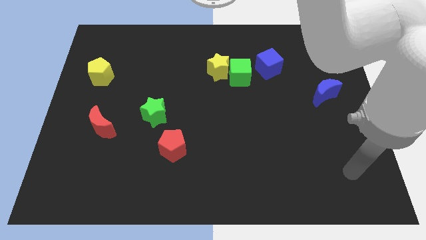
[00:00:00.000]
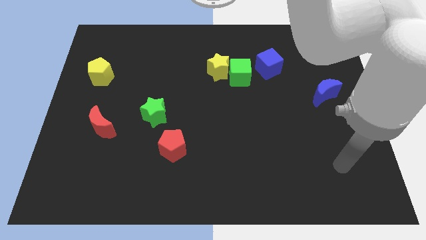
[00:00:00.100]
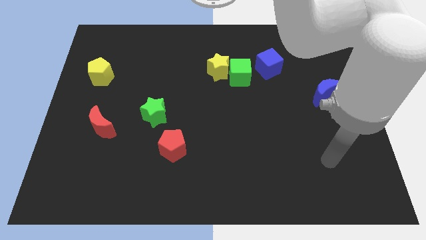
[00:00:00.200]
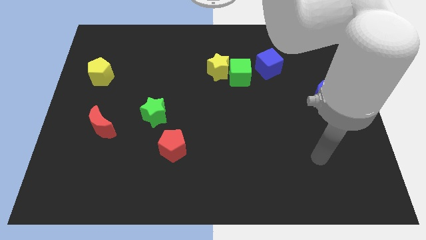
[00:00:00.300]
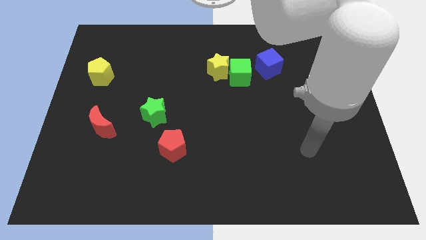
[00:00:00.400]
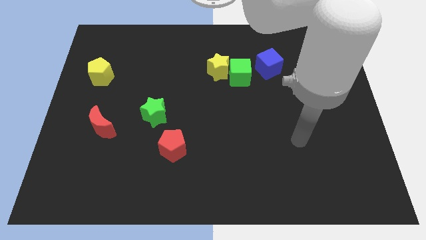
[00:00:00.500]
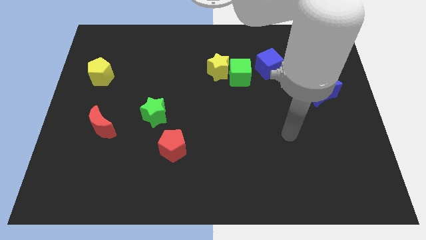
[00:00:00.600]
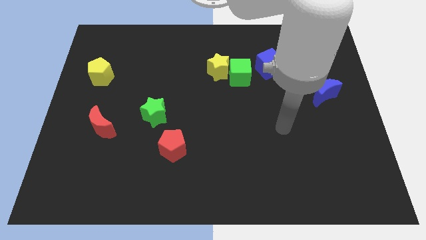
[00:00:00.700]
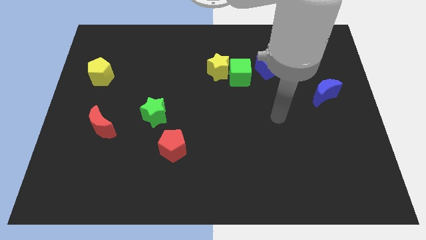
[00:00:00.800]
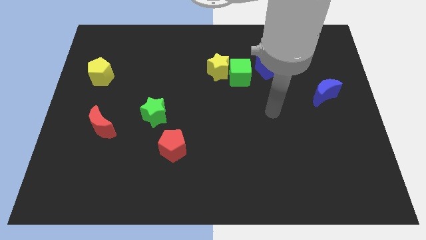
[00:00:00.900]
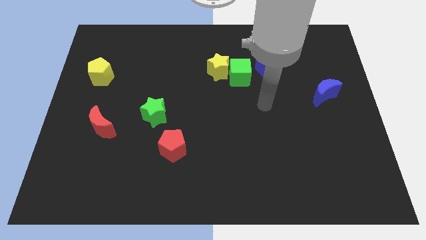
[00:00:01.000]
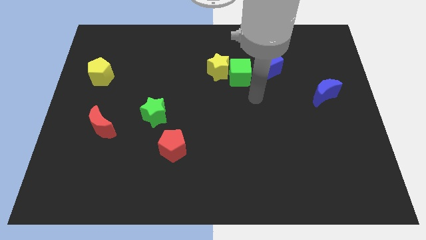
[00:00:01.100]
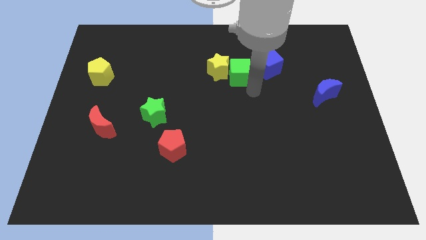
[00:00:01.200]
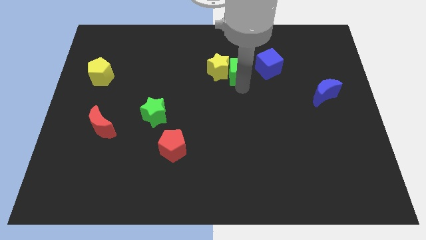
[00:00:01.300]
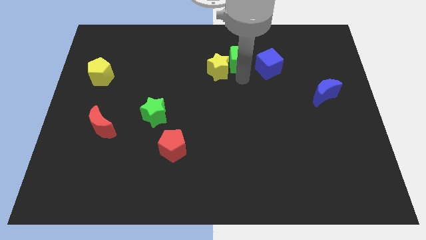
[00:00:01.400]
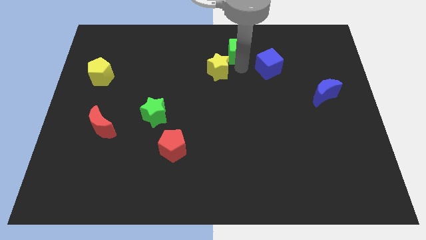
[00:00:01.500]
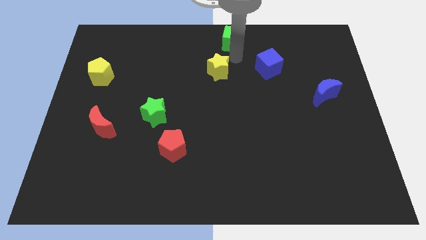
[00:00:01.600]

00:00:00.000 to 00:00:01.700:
separate the yellow star from the green cube

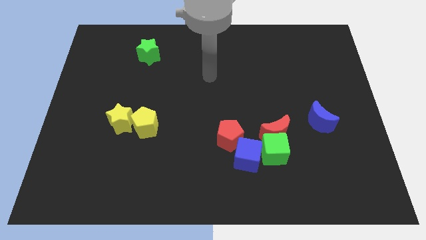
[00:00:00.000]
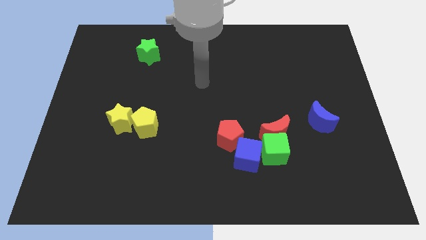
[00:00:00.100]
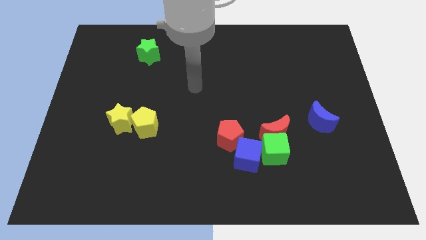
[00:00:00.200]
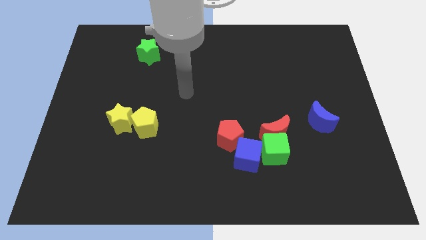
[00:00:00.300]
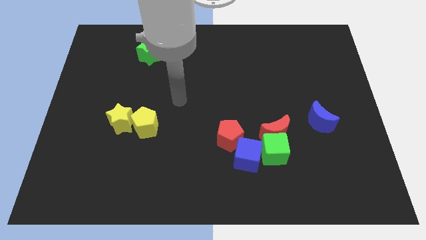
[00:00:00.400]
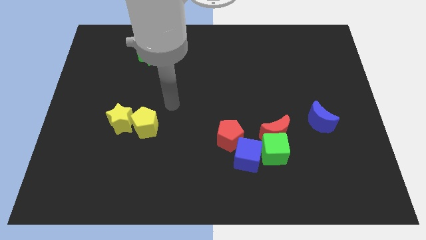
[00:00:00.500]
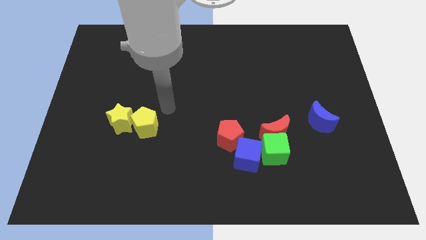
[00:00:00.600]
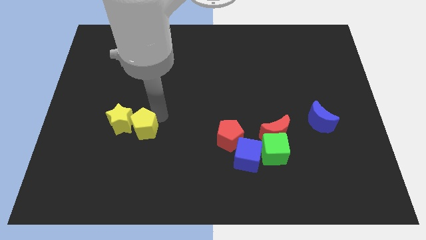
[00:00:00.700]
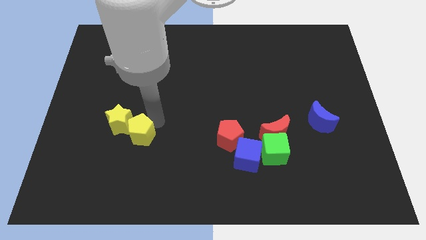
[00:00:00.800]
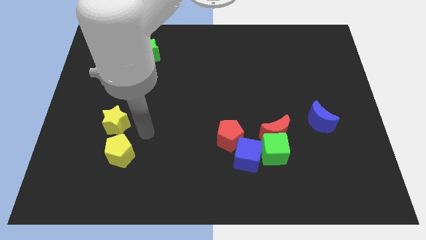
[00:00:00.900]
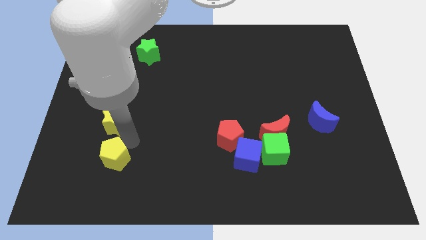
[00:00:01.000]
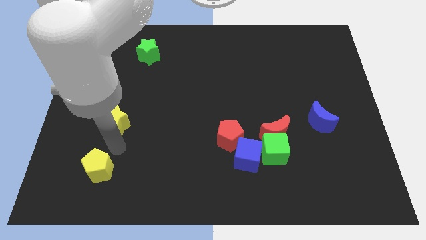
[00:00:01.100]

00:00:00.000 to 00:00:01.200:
separate the yellow star from the yellow pentagon

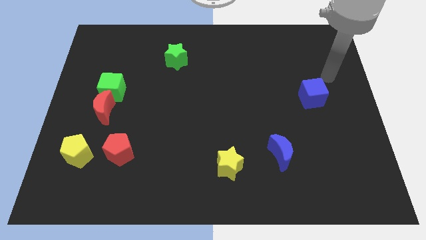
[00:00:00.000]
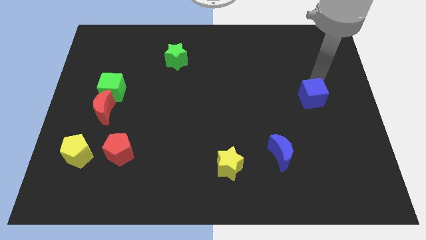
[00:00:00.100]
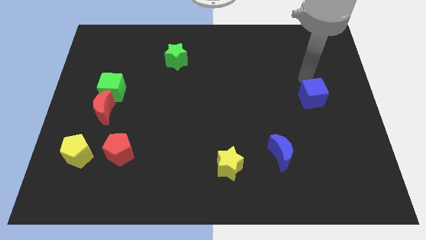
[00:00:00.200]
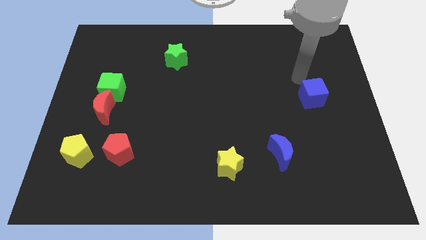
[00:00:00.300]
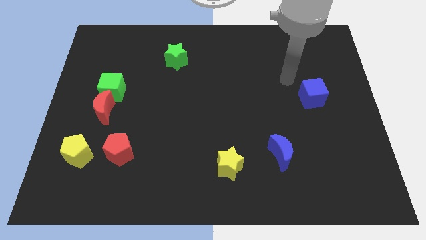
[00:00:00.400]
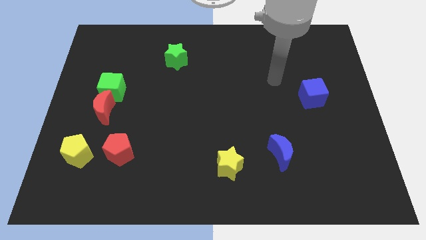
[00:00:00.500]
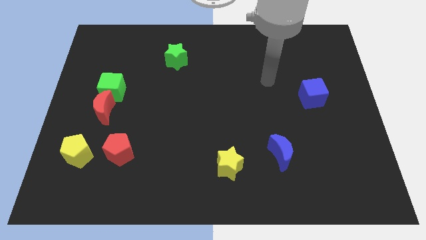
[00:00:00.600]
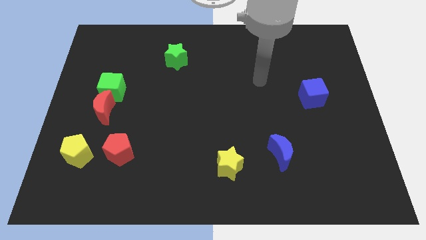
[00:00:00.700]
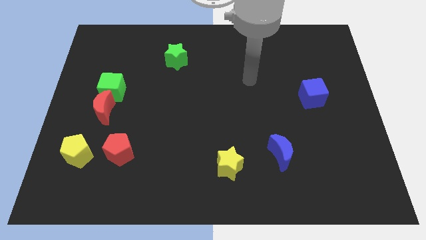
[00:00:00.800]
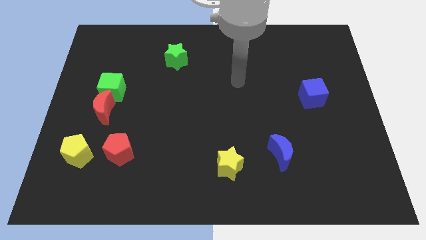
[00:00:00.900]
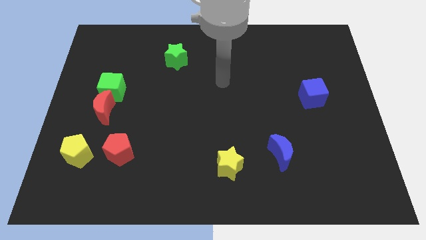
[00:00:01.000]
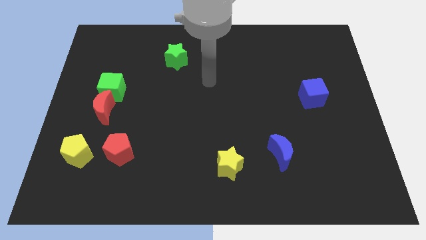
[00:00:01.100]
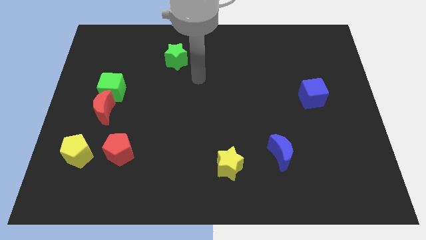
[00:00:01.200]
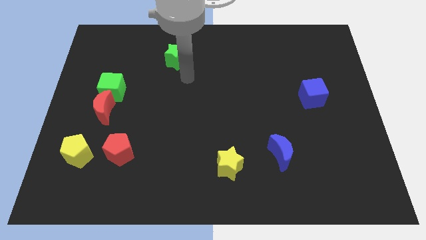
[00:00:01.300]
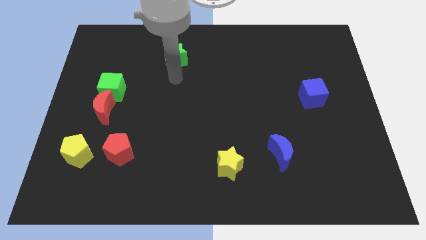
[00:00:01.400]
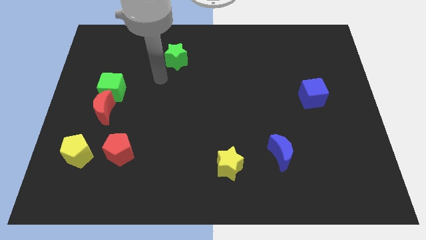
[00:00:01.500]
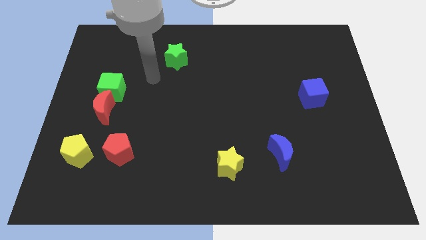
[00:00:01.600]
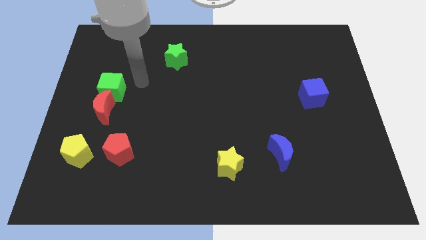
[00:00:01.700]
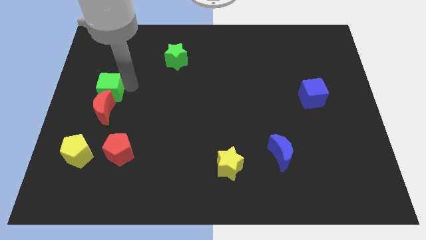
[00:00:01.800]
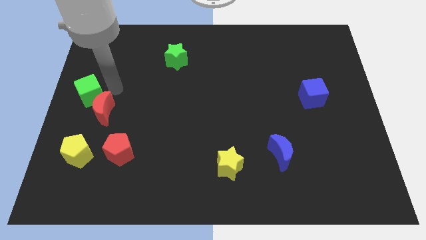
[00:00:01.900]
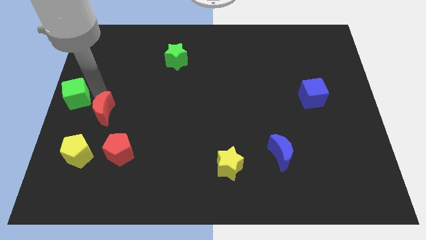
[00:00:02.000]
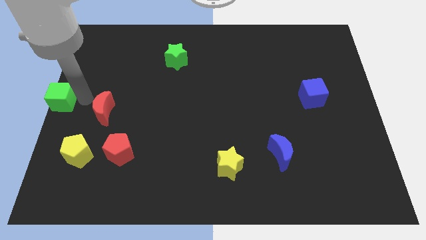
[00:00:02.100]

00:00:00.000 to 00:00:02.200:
separate the red moon from the green cube

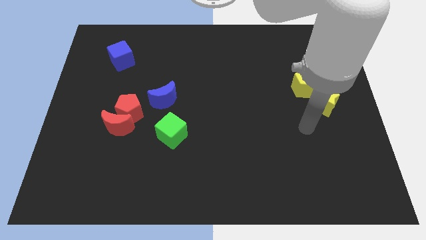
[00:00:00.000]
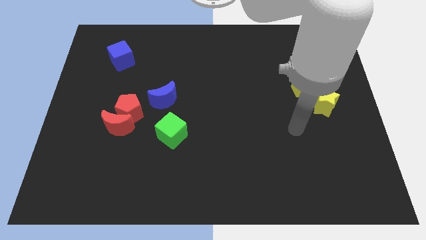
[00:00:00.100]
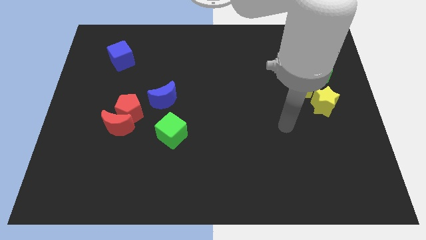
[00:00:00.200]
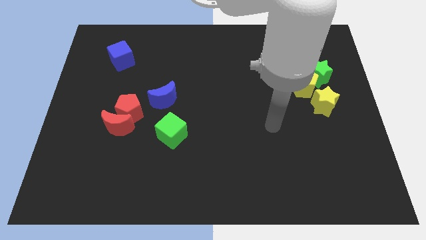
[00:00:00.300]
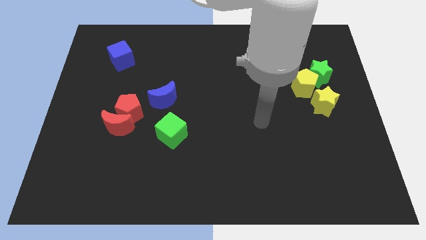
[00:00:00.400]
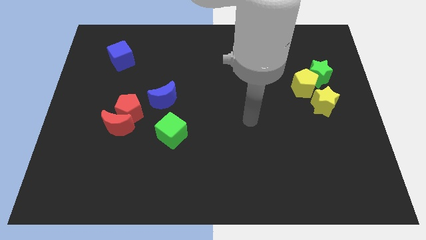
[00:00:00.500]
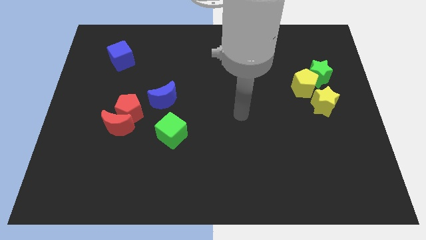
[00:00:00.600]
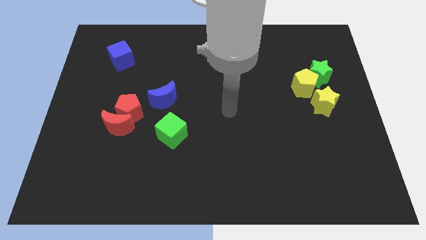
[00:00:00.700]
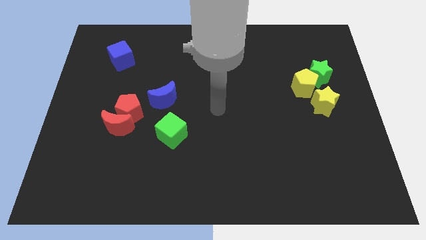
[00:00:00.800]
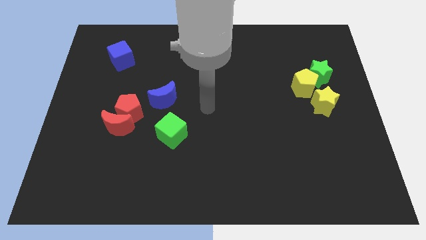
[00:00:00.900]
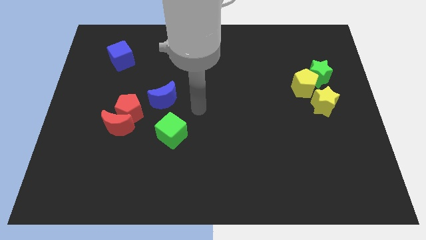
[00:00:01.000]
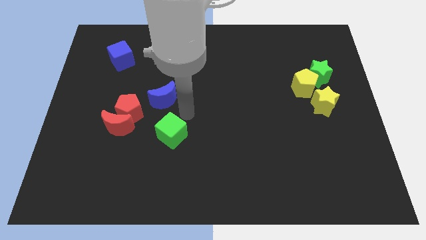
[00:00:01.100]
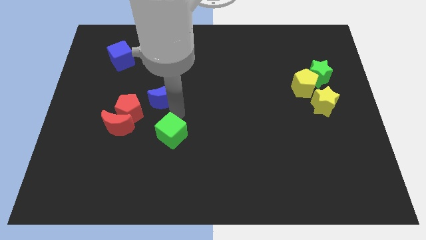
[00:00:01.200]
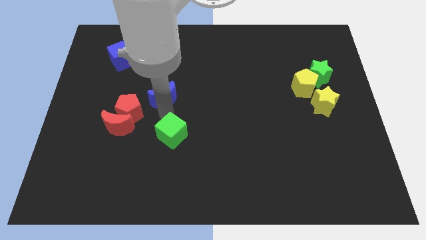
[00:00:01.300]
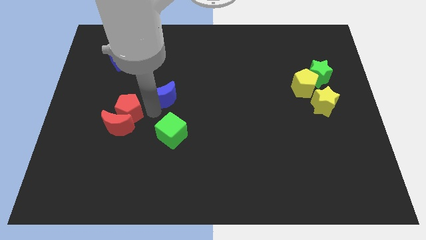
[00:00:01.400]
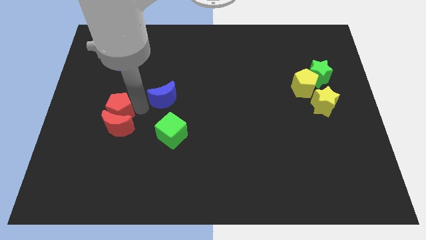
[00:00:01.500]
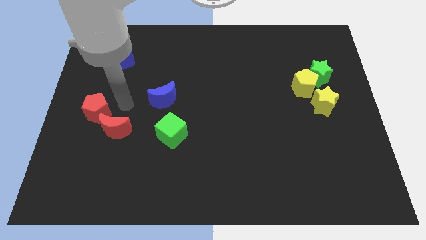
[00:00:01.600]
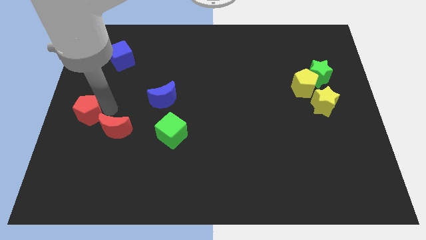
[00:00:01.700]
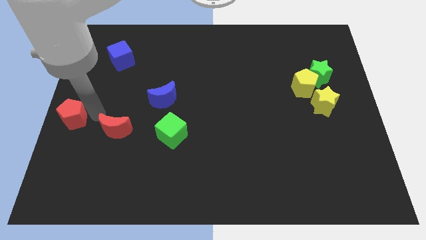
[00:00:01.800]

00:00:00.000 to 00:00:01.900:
pull the red moon apart from the red pentagon

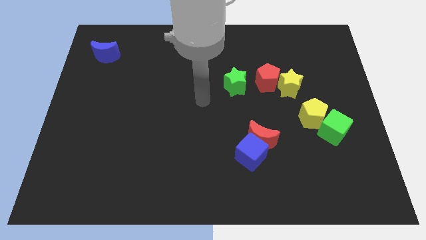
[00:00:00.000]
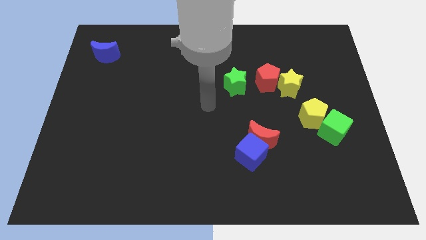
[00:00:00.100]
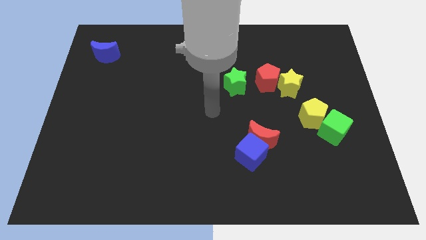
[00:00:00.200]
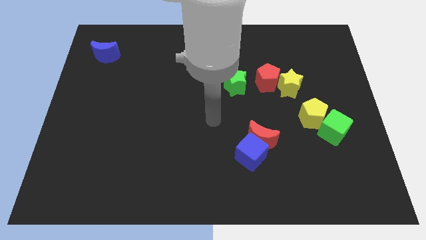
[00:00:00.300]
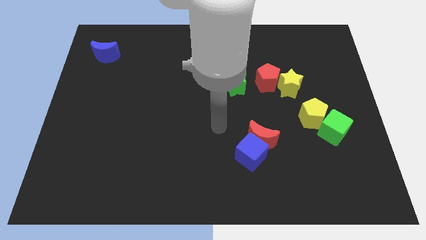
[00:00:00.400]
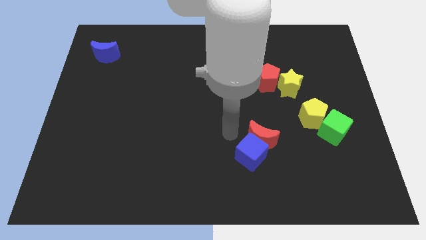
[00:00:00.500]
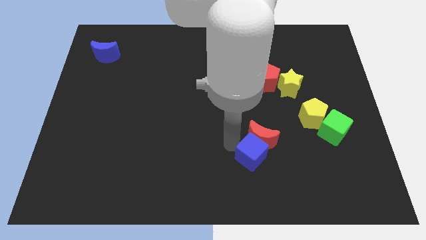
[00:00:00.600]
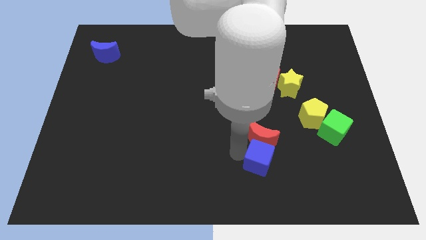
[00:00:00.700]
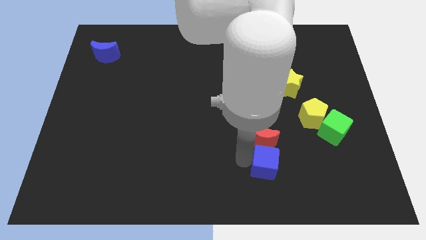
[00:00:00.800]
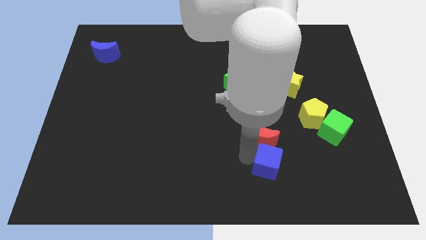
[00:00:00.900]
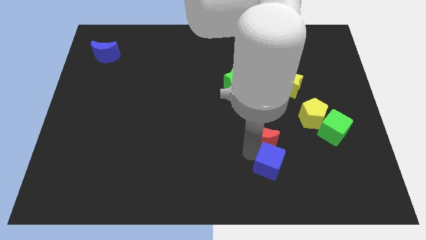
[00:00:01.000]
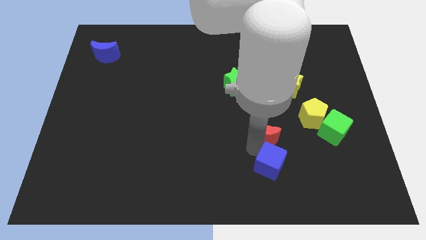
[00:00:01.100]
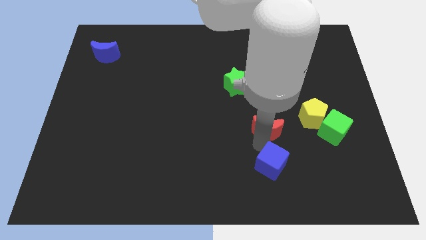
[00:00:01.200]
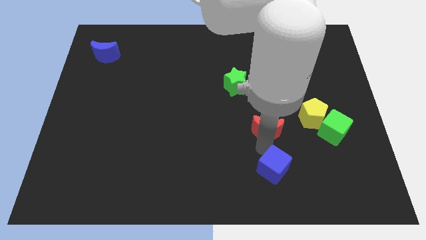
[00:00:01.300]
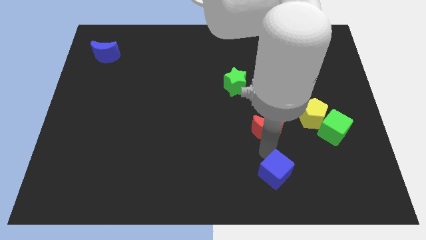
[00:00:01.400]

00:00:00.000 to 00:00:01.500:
pull the red moon apart from the blue cube

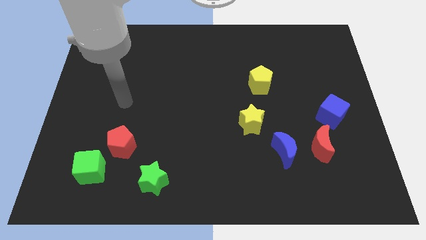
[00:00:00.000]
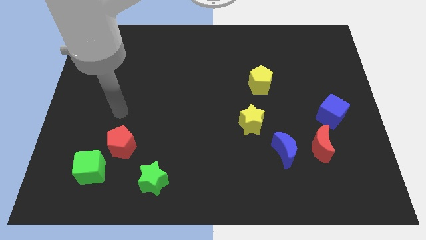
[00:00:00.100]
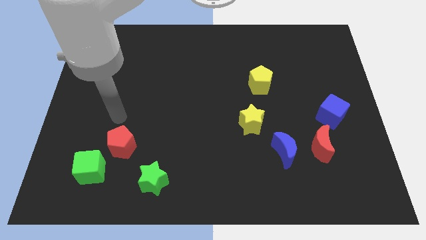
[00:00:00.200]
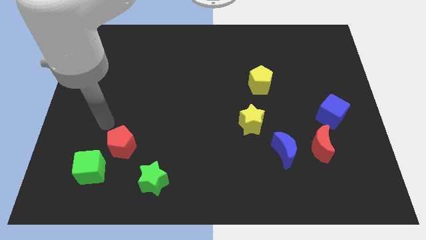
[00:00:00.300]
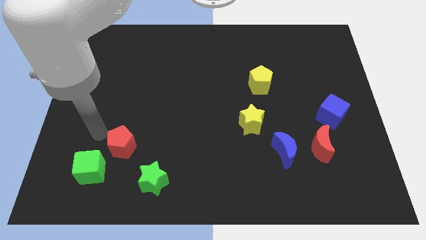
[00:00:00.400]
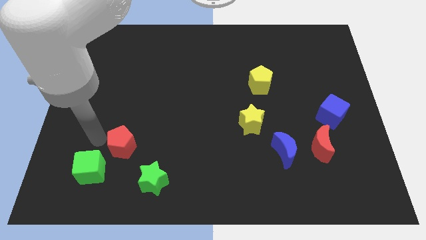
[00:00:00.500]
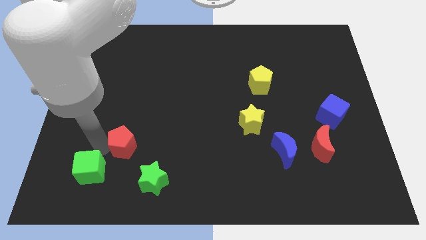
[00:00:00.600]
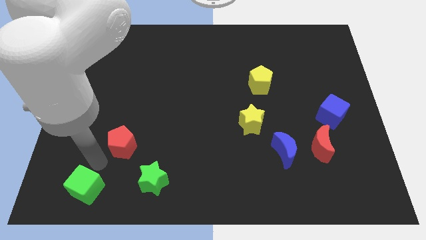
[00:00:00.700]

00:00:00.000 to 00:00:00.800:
separate the red pentagon from the green cube
